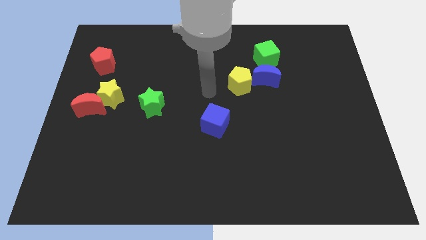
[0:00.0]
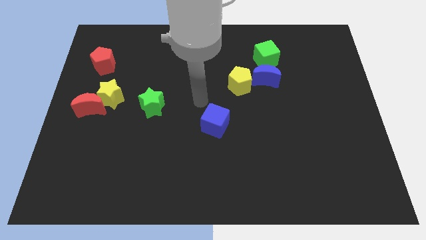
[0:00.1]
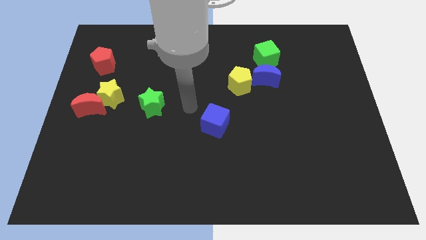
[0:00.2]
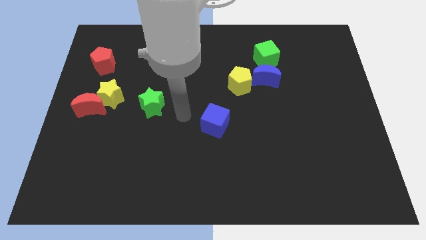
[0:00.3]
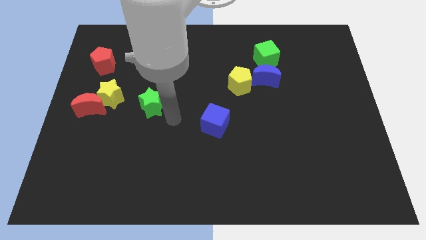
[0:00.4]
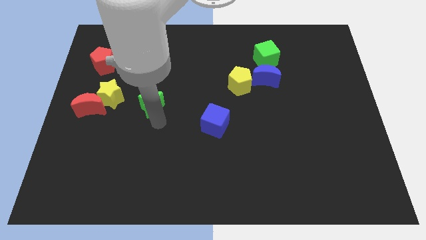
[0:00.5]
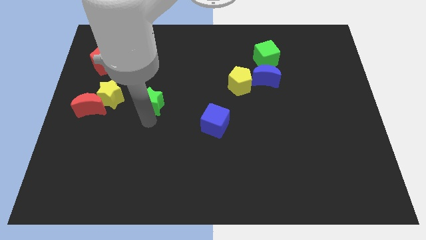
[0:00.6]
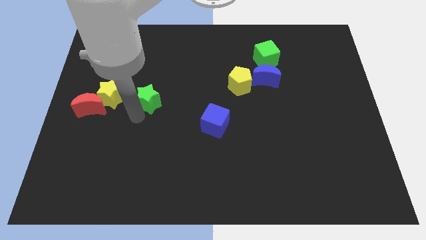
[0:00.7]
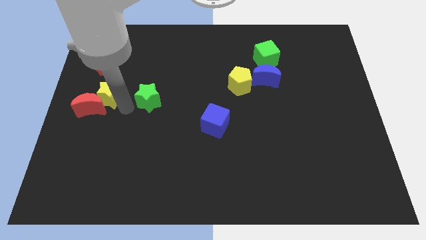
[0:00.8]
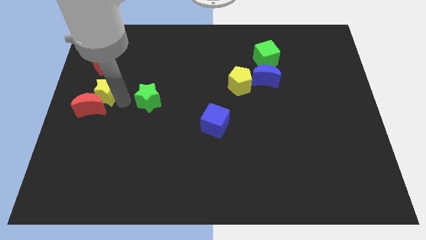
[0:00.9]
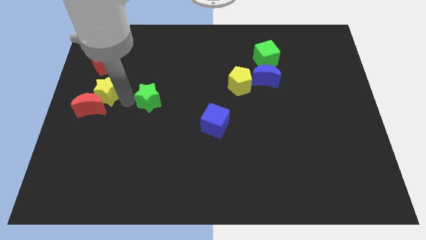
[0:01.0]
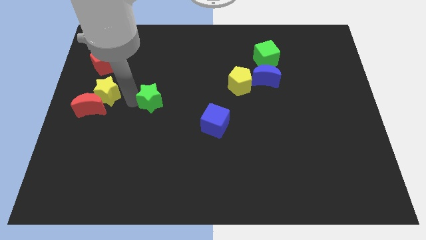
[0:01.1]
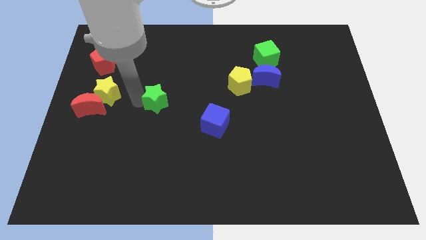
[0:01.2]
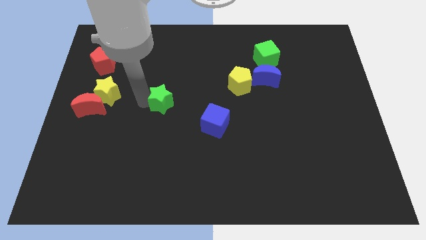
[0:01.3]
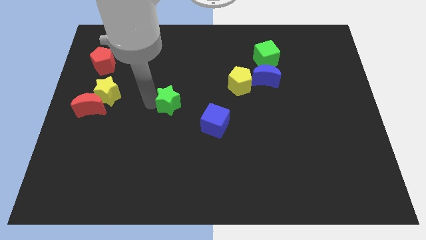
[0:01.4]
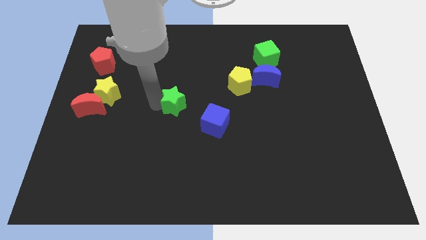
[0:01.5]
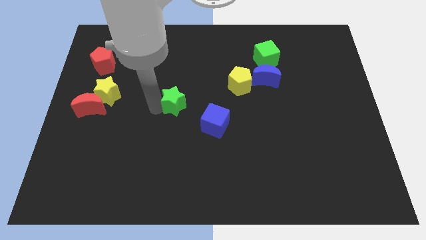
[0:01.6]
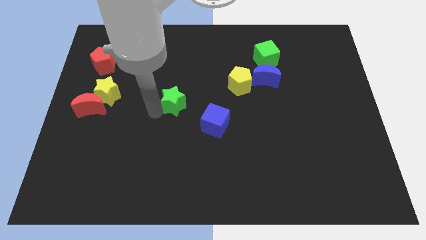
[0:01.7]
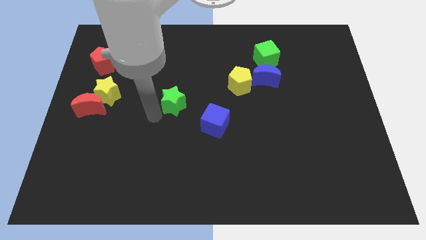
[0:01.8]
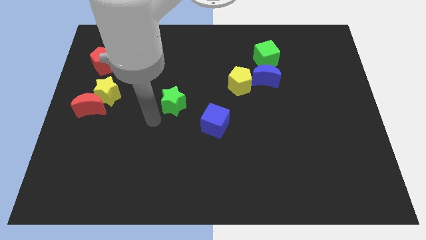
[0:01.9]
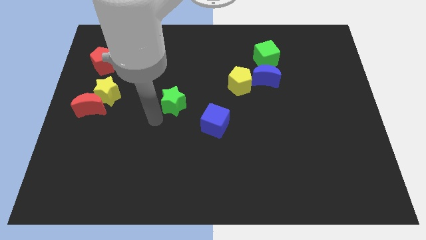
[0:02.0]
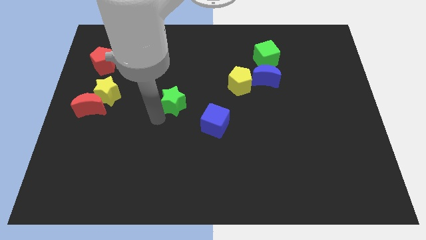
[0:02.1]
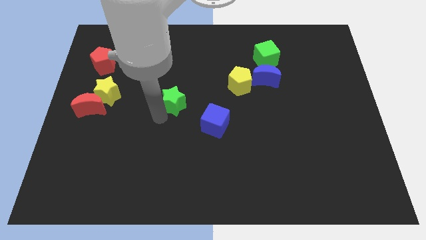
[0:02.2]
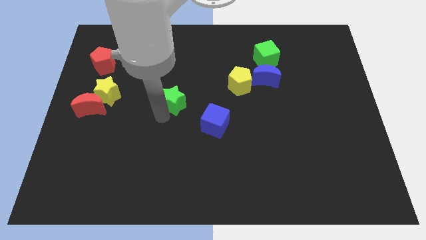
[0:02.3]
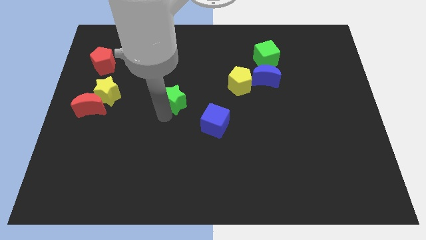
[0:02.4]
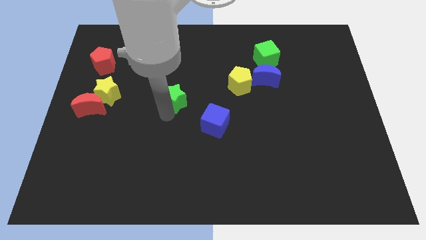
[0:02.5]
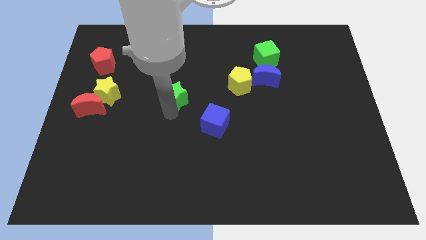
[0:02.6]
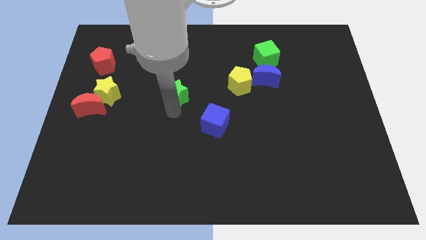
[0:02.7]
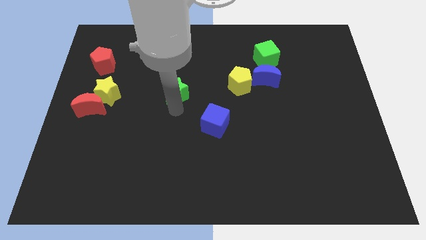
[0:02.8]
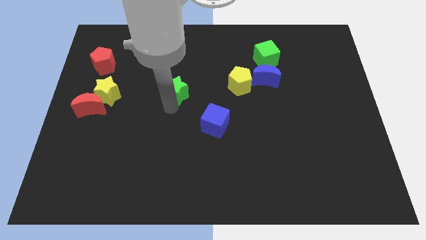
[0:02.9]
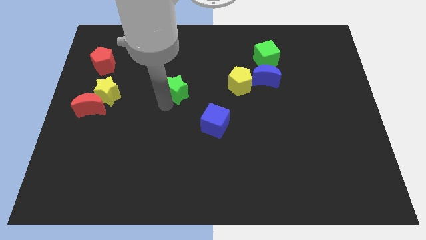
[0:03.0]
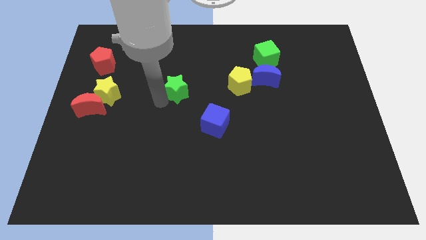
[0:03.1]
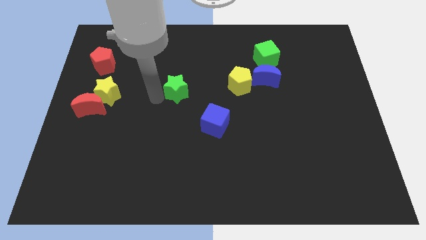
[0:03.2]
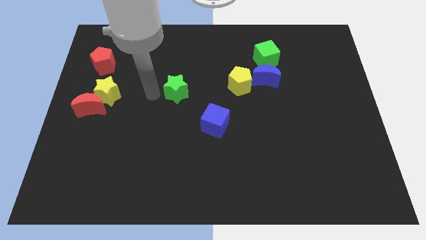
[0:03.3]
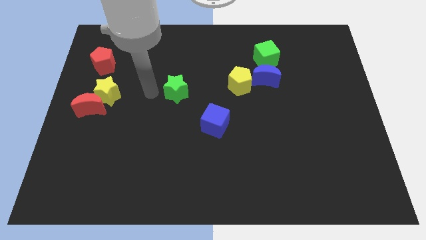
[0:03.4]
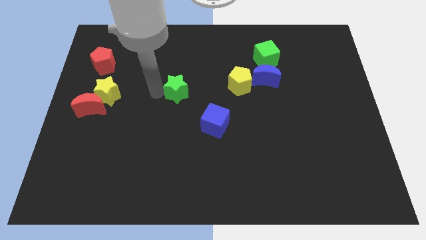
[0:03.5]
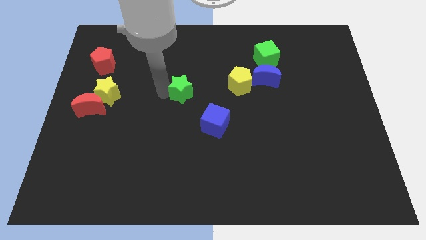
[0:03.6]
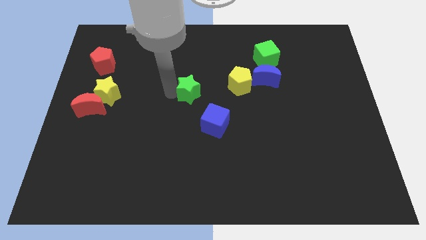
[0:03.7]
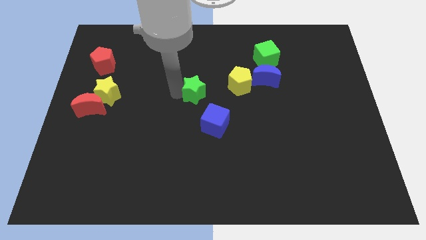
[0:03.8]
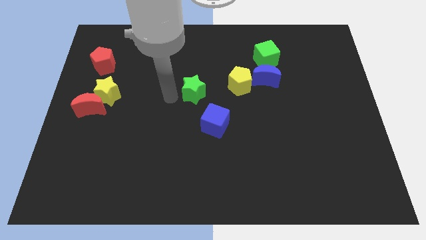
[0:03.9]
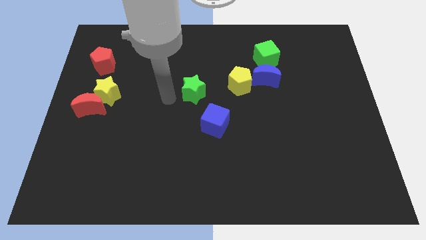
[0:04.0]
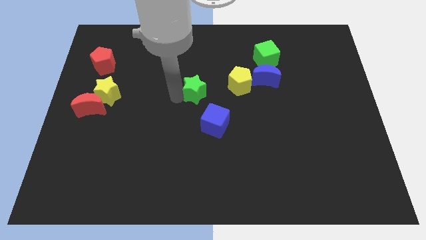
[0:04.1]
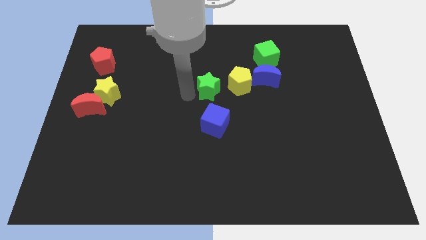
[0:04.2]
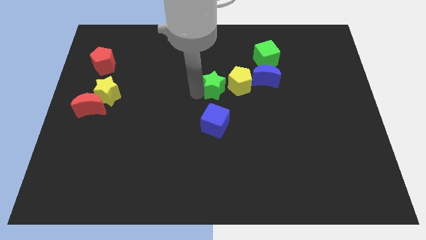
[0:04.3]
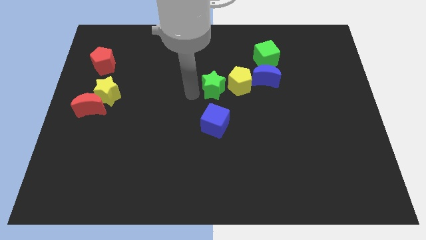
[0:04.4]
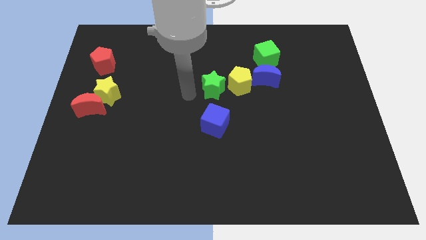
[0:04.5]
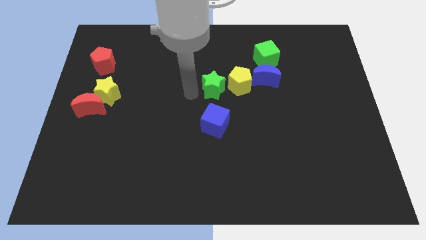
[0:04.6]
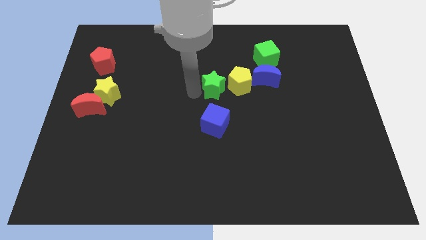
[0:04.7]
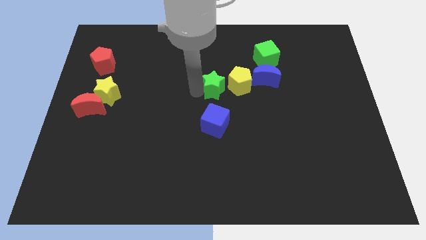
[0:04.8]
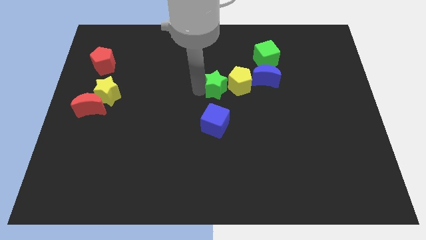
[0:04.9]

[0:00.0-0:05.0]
put the green star next to the yellow pentagon

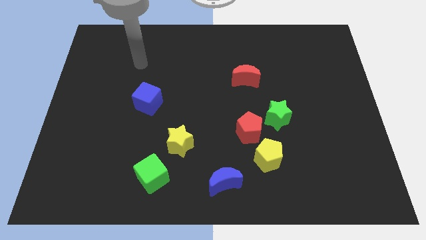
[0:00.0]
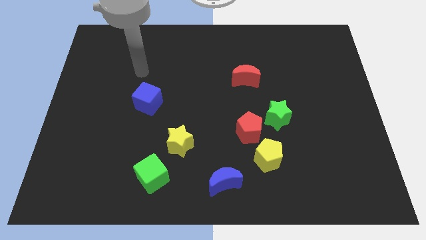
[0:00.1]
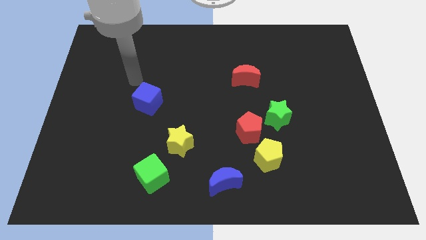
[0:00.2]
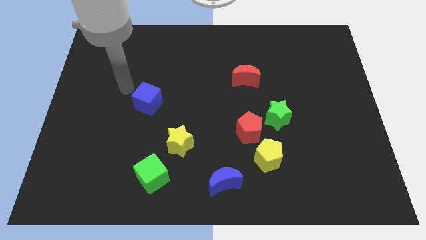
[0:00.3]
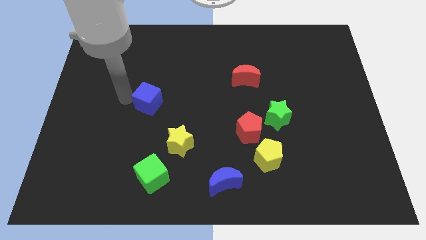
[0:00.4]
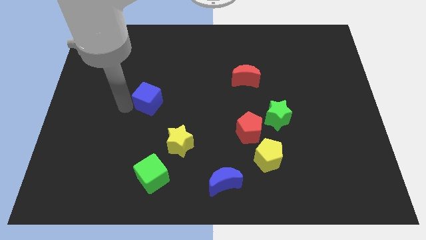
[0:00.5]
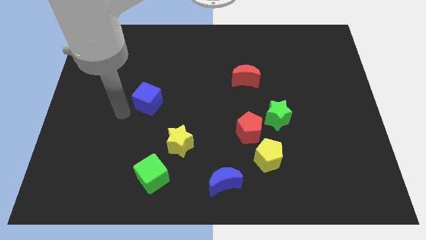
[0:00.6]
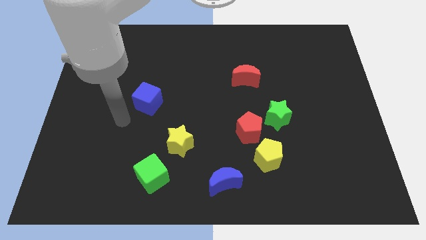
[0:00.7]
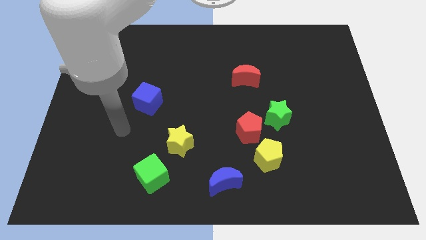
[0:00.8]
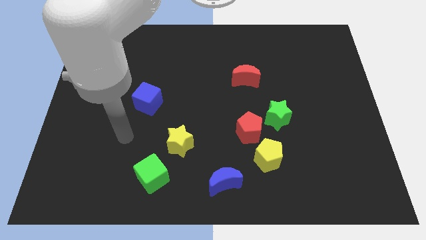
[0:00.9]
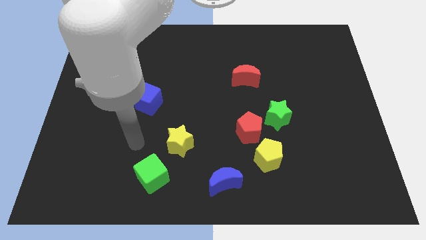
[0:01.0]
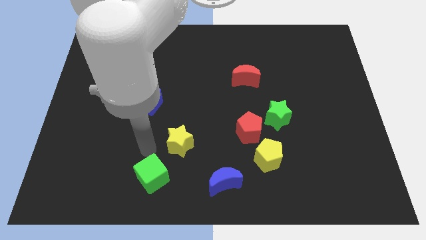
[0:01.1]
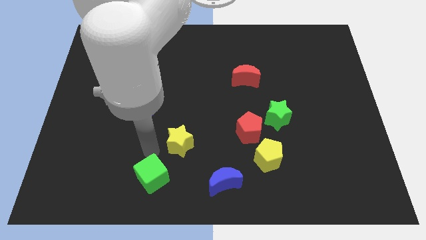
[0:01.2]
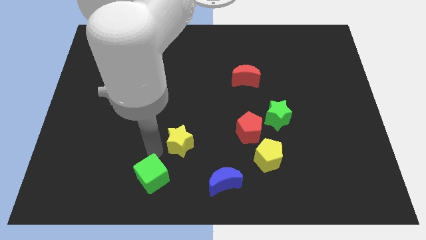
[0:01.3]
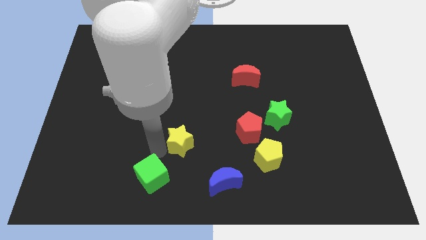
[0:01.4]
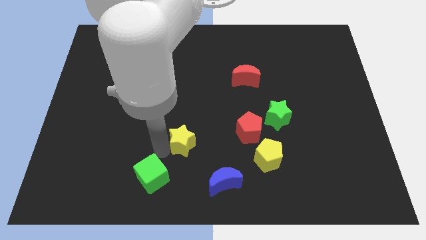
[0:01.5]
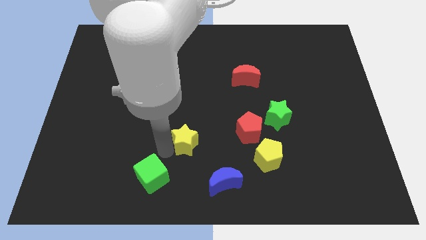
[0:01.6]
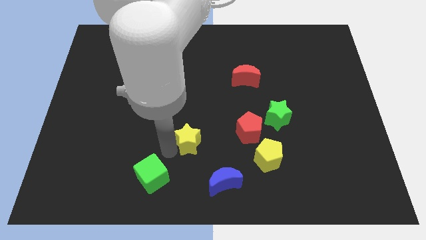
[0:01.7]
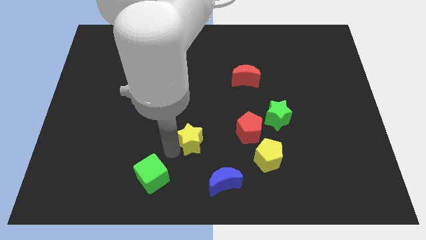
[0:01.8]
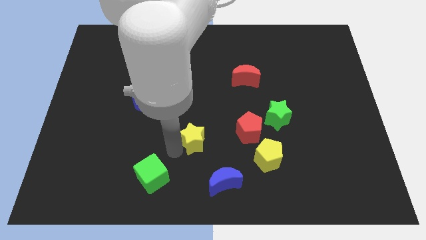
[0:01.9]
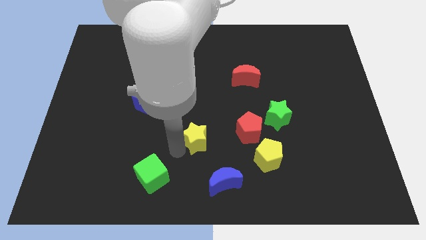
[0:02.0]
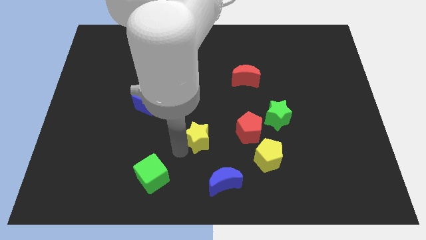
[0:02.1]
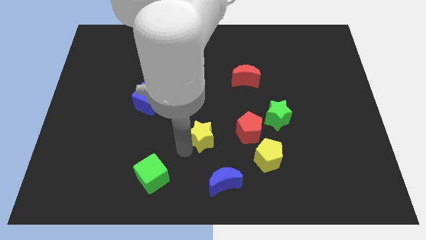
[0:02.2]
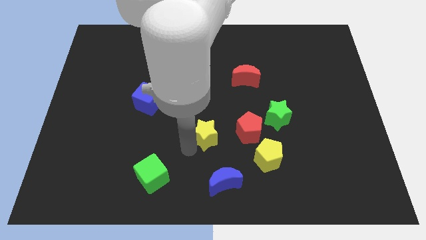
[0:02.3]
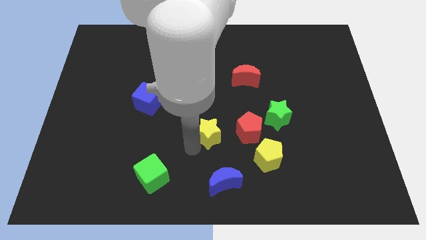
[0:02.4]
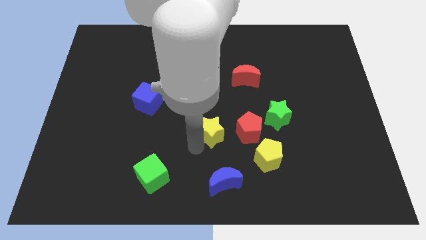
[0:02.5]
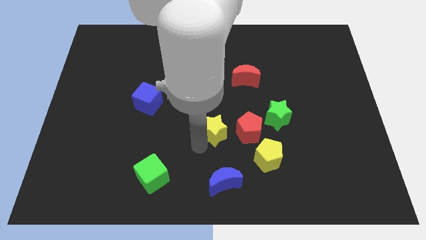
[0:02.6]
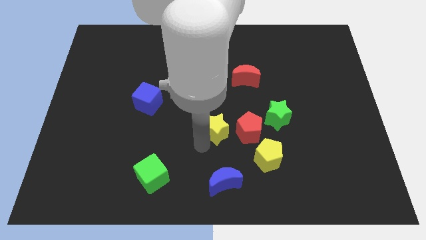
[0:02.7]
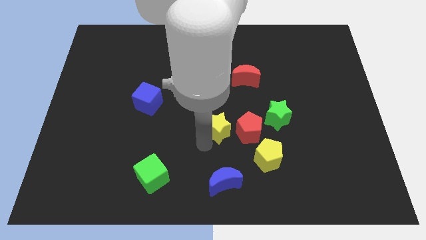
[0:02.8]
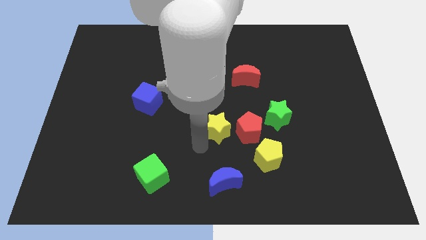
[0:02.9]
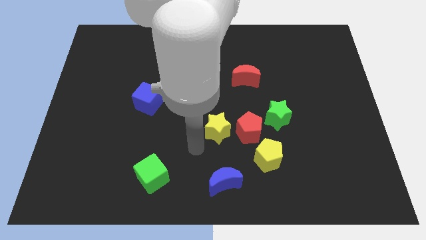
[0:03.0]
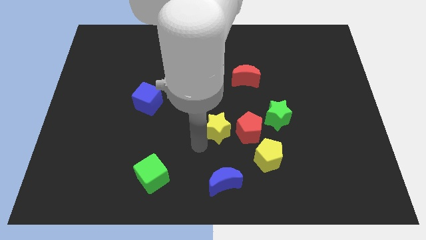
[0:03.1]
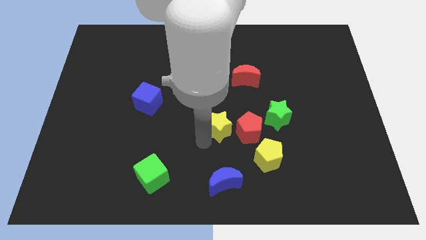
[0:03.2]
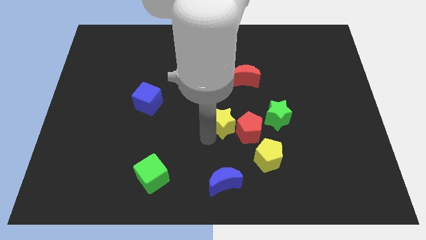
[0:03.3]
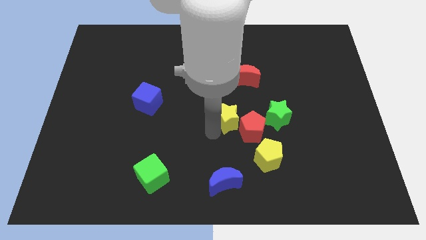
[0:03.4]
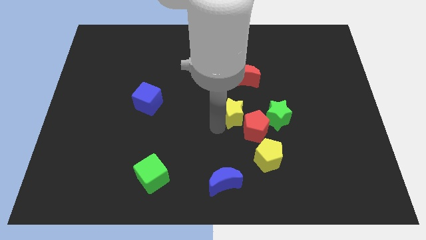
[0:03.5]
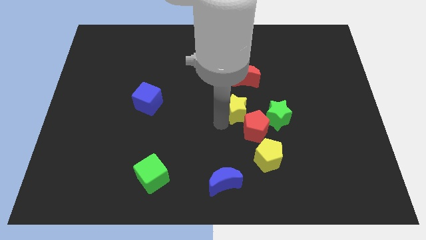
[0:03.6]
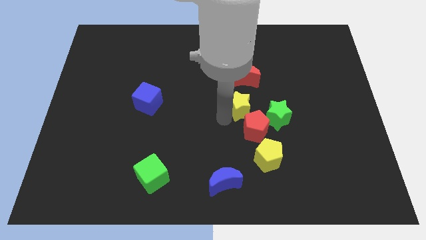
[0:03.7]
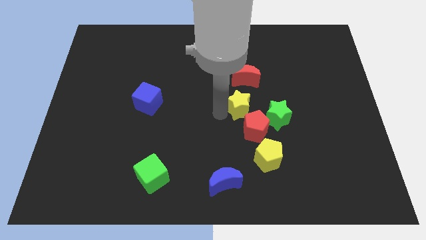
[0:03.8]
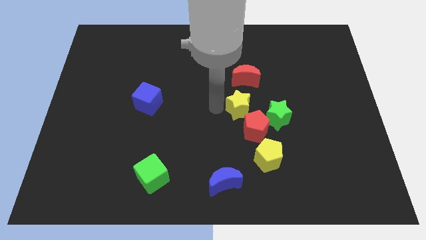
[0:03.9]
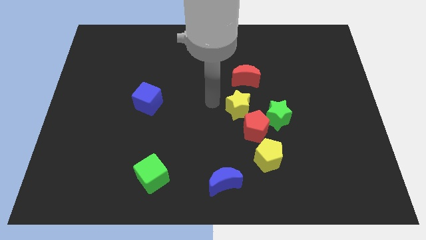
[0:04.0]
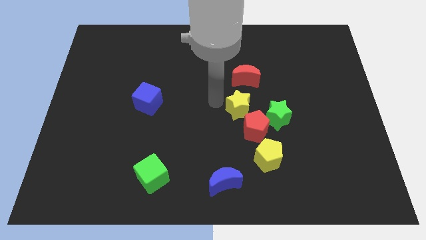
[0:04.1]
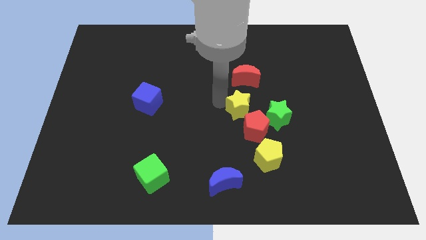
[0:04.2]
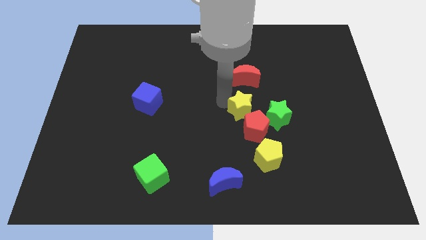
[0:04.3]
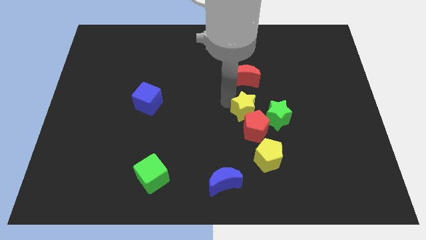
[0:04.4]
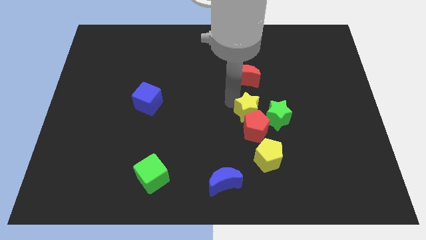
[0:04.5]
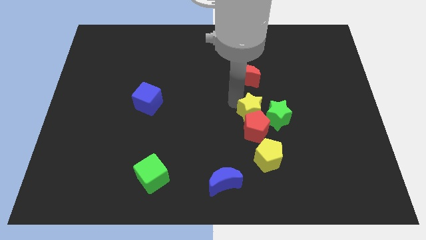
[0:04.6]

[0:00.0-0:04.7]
slide the yellow star next to the green star
